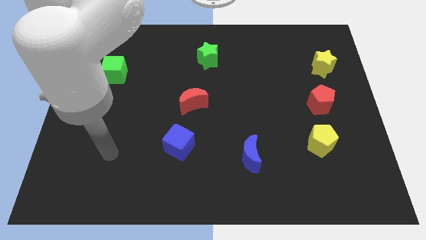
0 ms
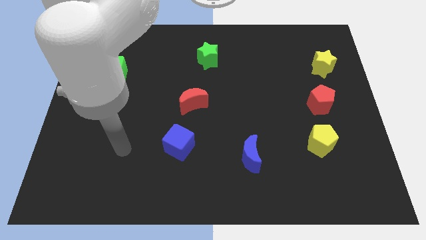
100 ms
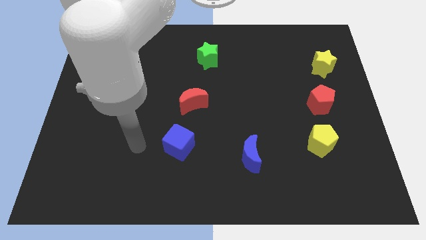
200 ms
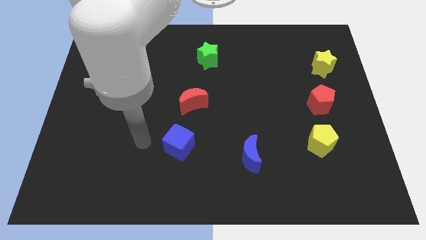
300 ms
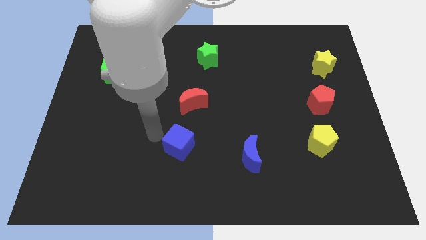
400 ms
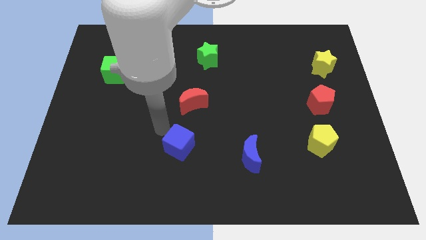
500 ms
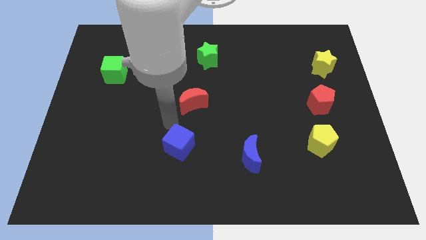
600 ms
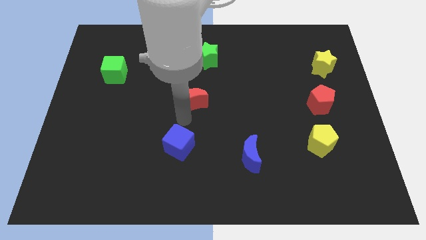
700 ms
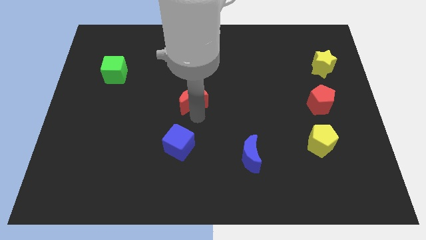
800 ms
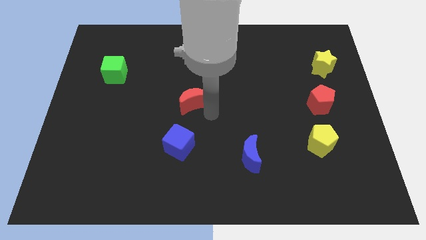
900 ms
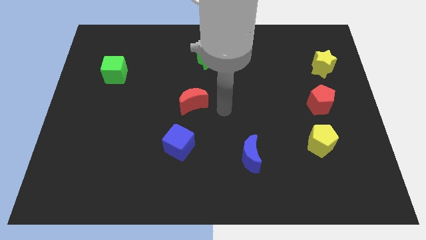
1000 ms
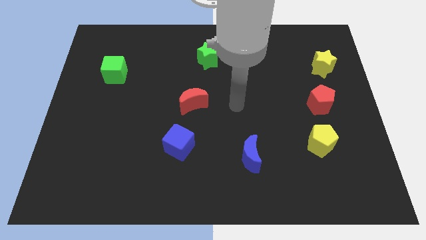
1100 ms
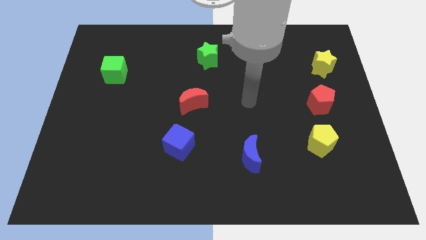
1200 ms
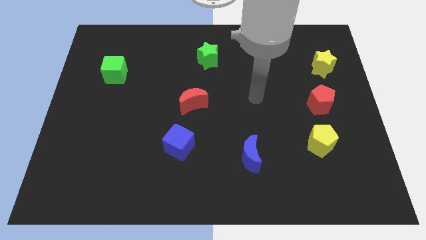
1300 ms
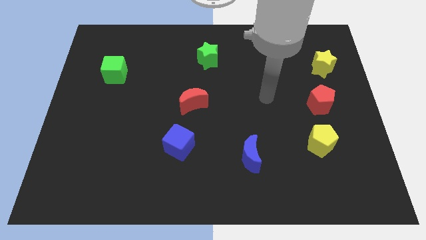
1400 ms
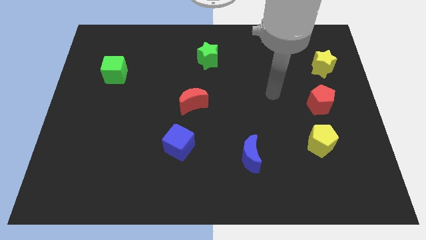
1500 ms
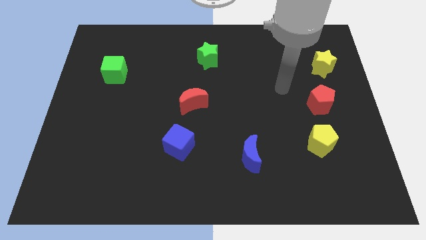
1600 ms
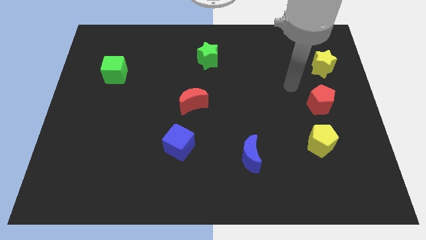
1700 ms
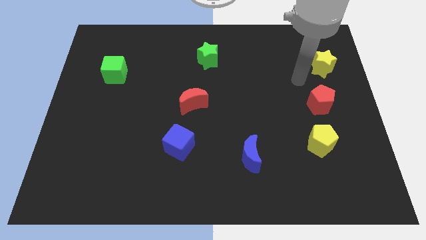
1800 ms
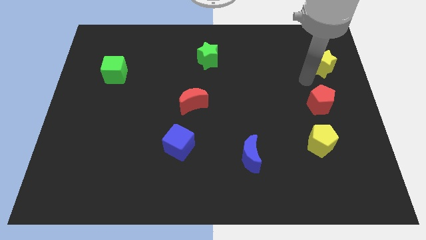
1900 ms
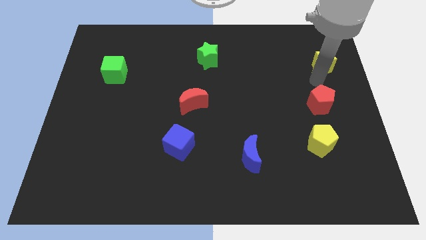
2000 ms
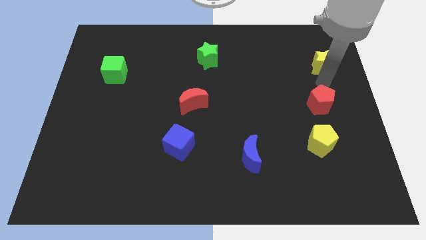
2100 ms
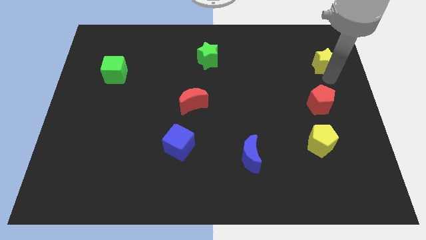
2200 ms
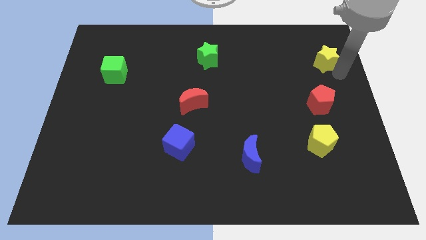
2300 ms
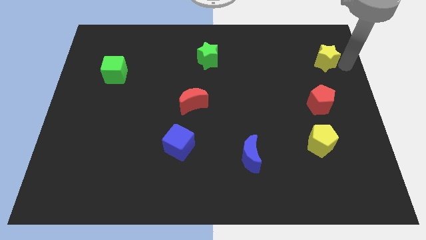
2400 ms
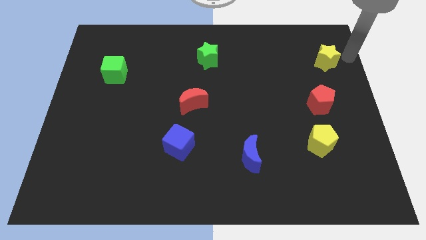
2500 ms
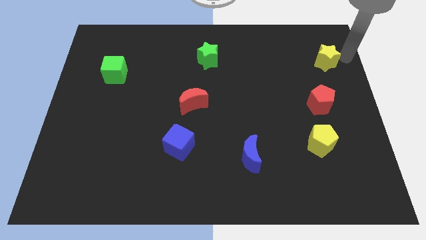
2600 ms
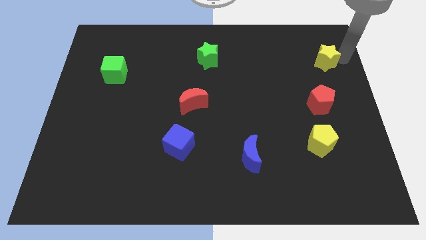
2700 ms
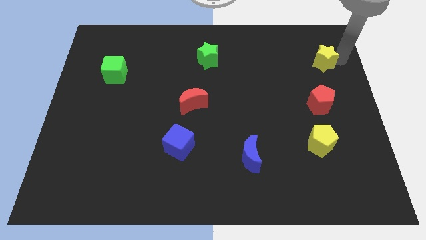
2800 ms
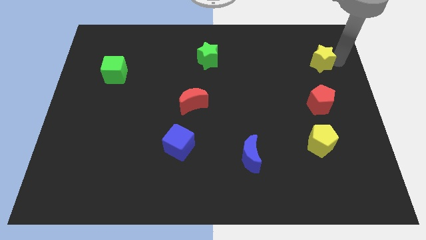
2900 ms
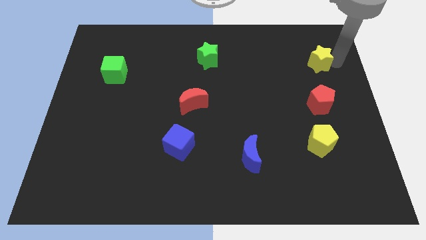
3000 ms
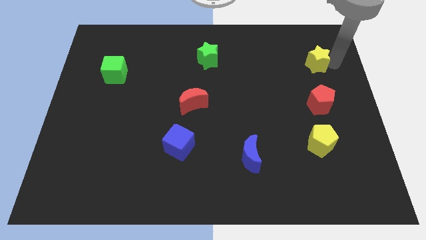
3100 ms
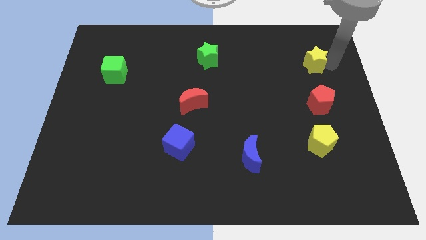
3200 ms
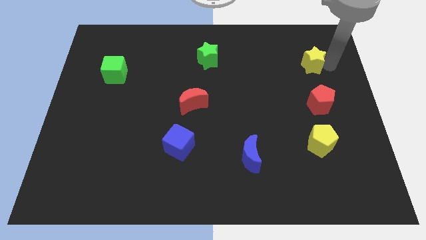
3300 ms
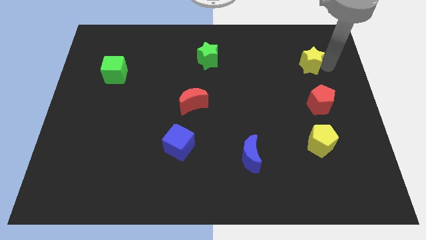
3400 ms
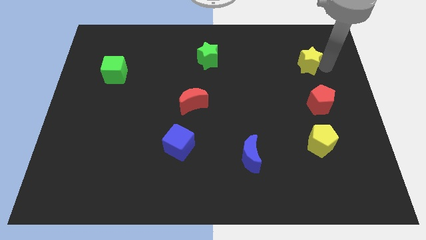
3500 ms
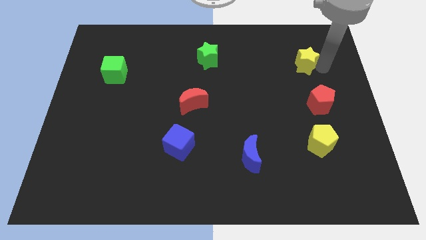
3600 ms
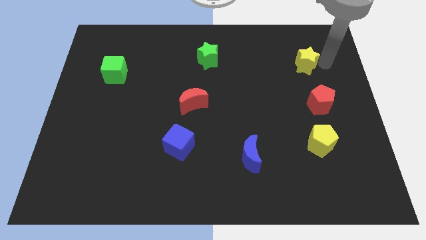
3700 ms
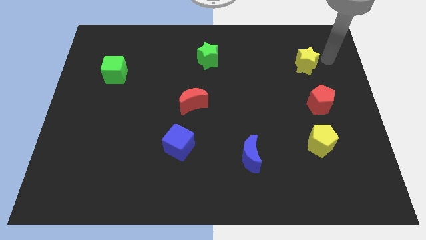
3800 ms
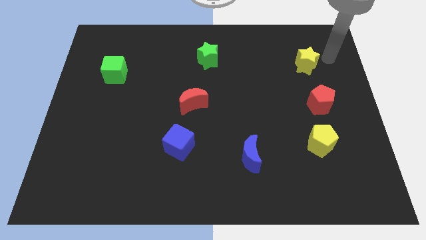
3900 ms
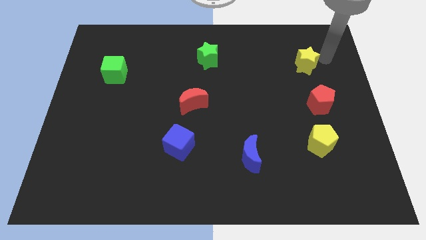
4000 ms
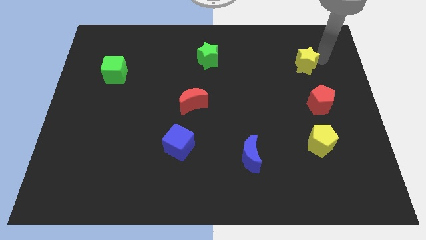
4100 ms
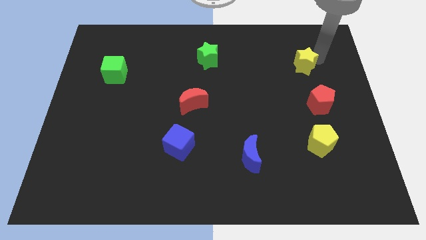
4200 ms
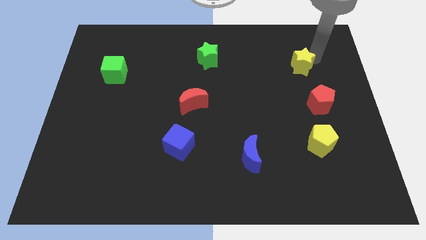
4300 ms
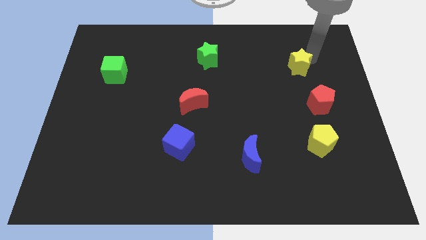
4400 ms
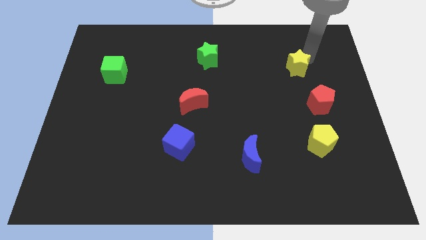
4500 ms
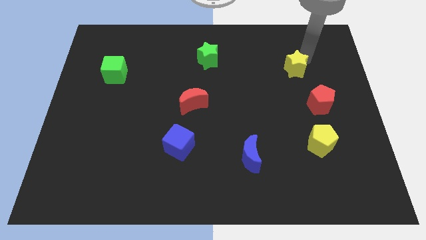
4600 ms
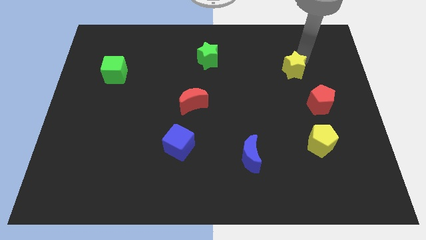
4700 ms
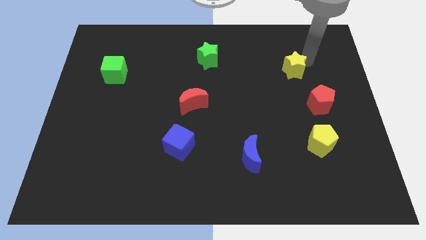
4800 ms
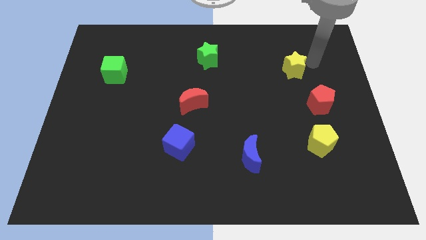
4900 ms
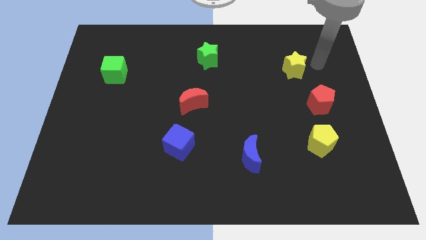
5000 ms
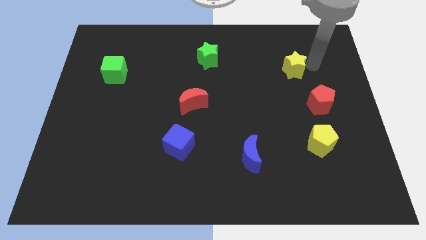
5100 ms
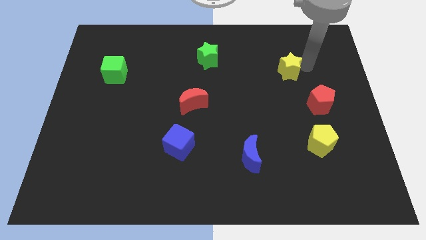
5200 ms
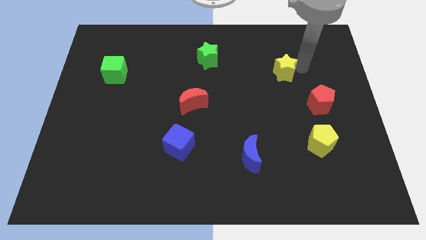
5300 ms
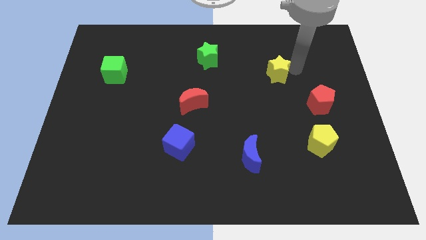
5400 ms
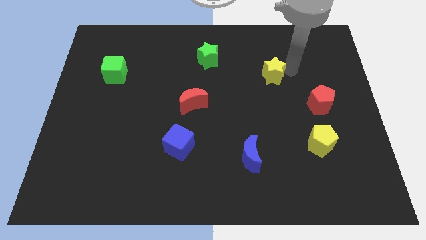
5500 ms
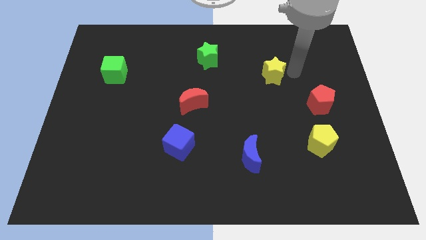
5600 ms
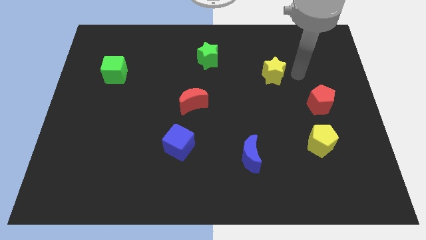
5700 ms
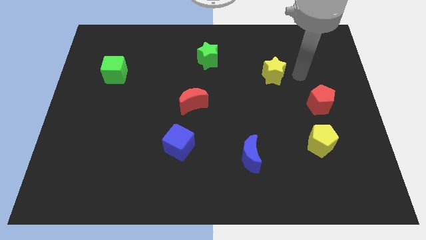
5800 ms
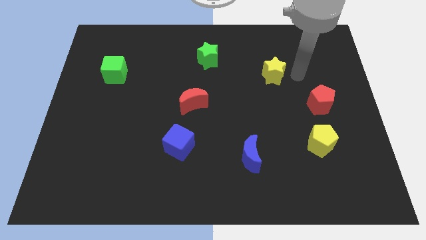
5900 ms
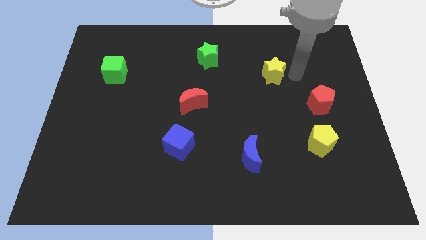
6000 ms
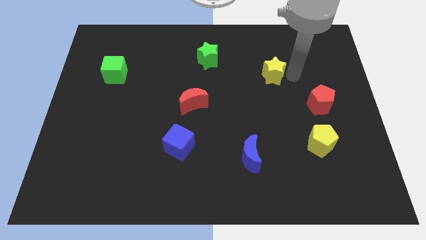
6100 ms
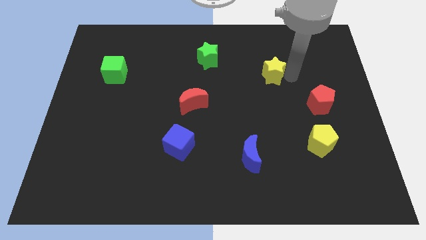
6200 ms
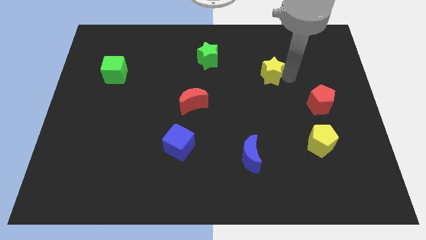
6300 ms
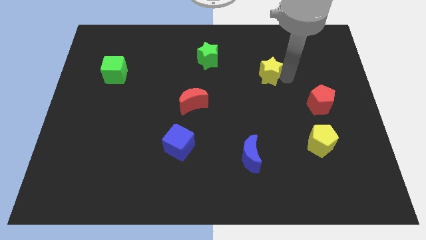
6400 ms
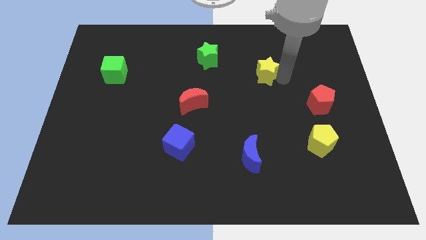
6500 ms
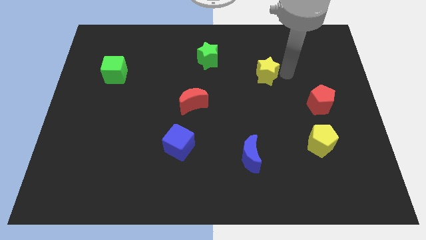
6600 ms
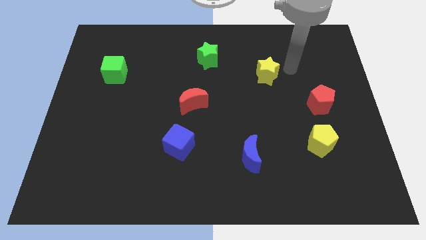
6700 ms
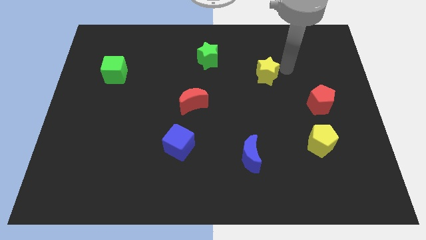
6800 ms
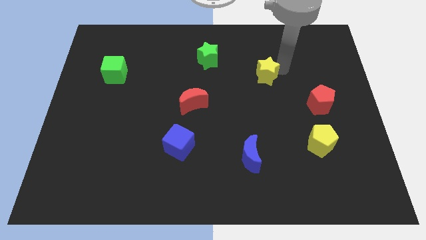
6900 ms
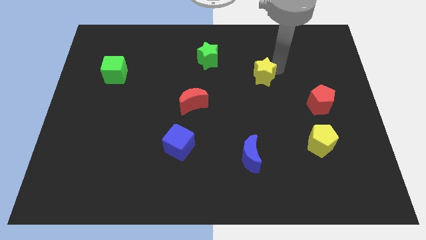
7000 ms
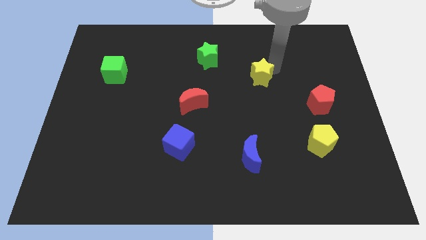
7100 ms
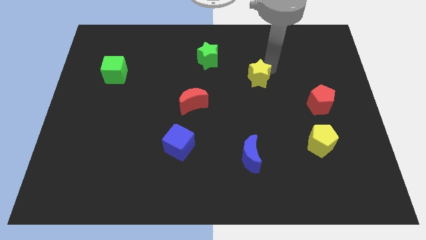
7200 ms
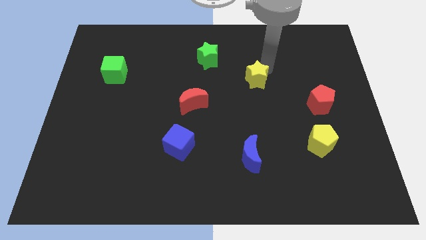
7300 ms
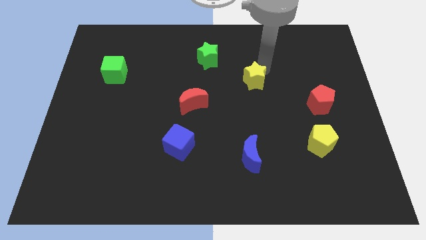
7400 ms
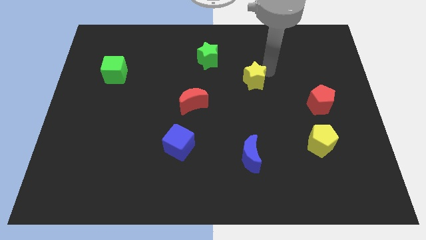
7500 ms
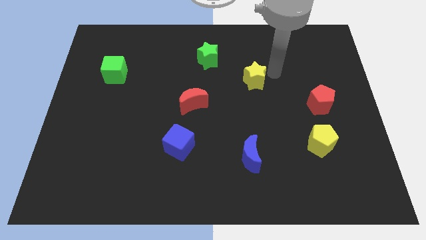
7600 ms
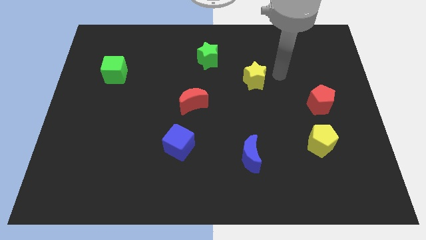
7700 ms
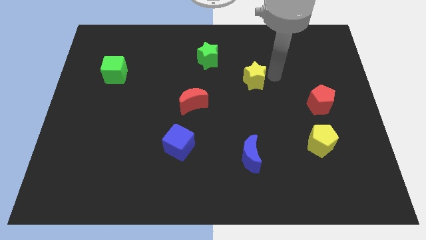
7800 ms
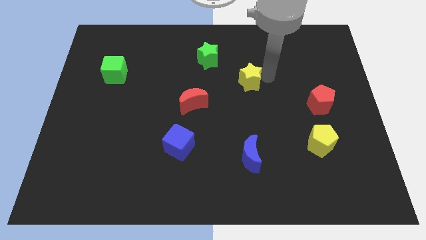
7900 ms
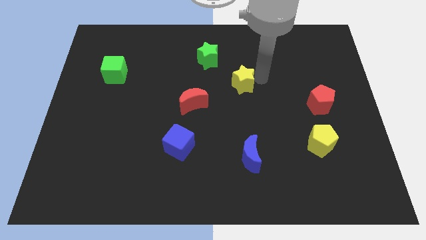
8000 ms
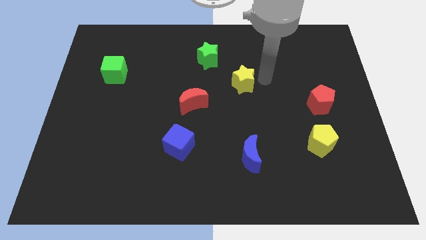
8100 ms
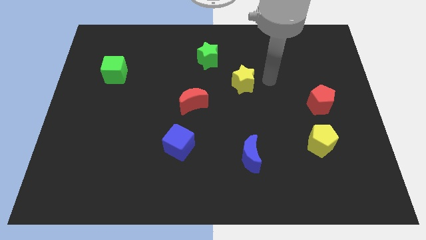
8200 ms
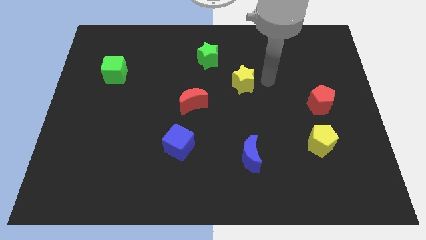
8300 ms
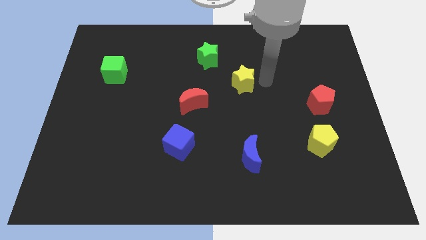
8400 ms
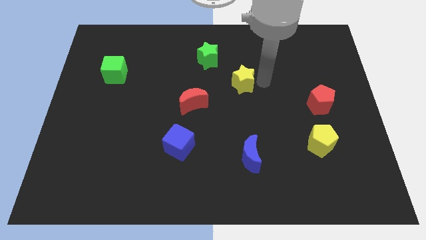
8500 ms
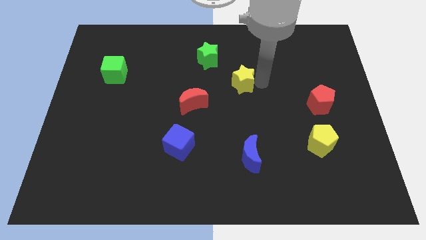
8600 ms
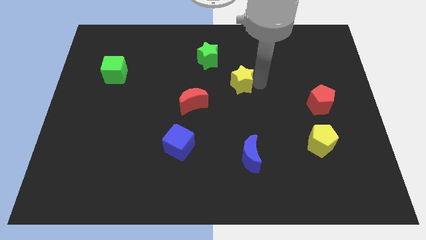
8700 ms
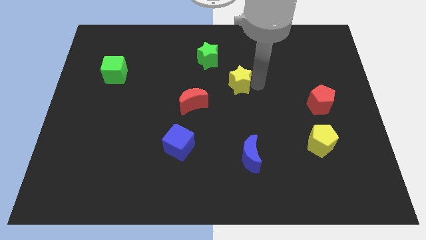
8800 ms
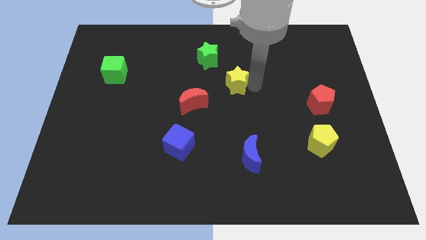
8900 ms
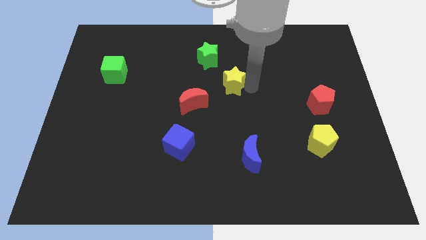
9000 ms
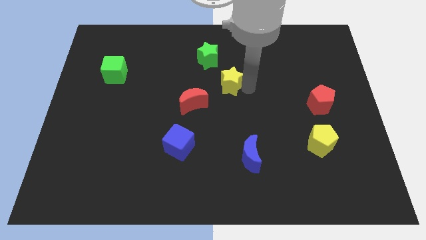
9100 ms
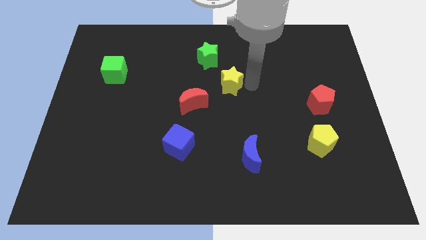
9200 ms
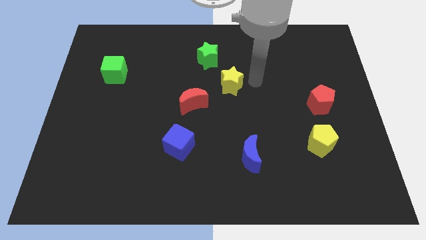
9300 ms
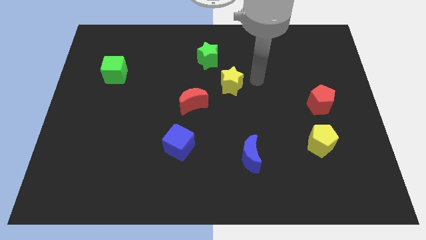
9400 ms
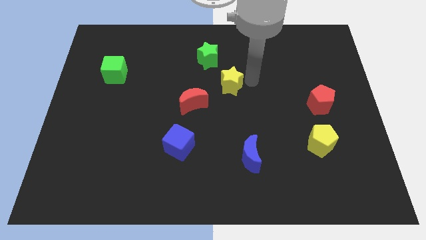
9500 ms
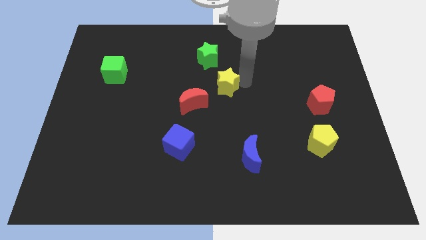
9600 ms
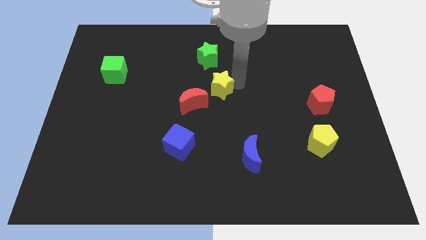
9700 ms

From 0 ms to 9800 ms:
push the yellow star below the green star
